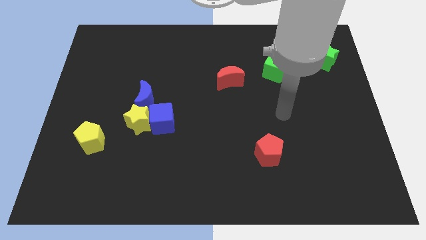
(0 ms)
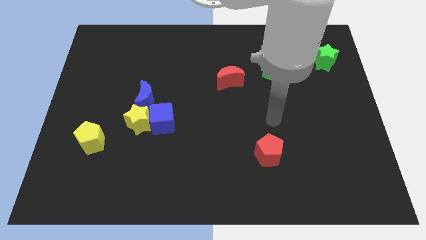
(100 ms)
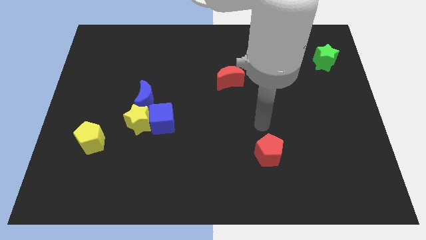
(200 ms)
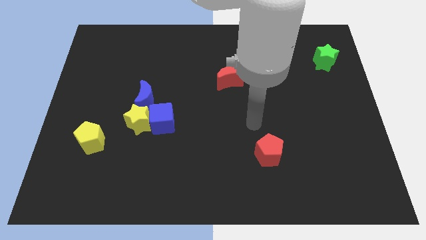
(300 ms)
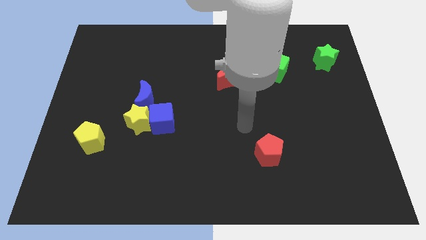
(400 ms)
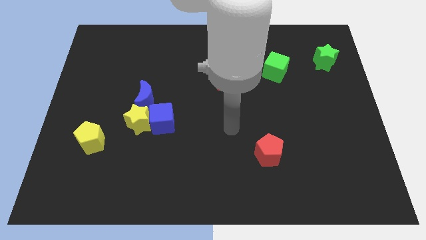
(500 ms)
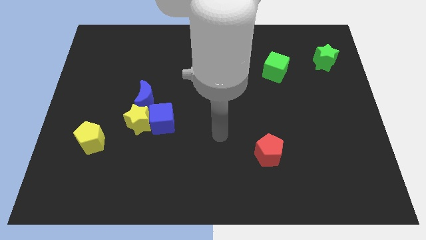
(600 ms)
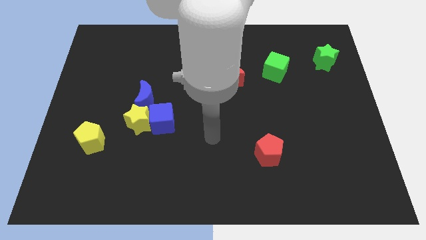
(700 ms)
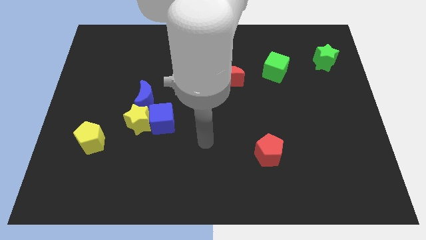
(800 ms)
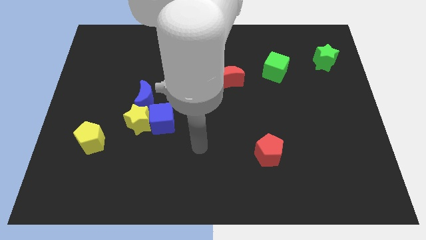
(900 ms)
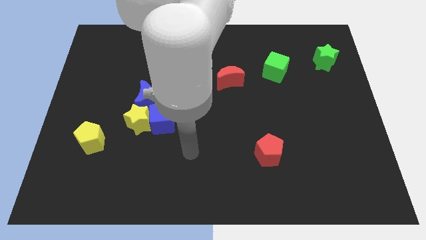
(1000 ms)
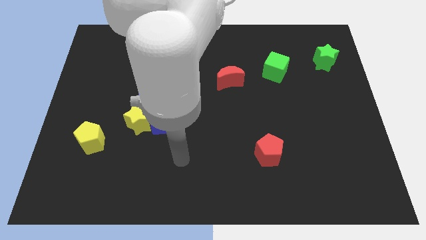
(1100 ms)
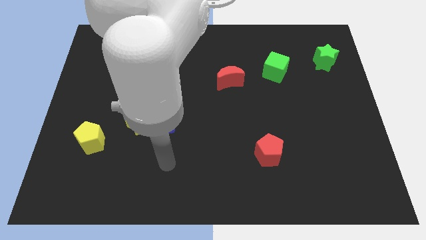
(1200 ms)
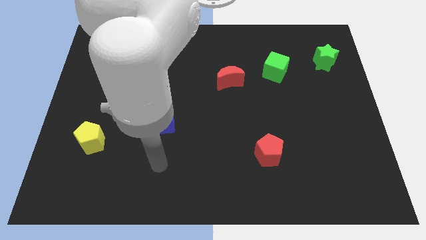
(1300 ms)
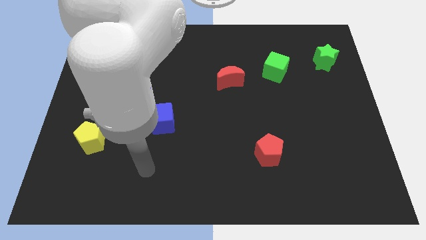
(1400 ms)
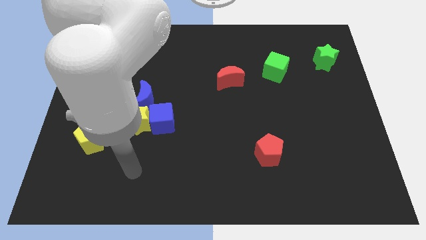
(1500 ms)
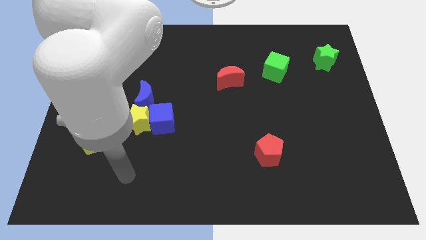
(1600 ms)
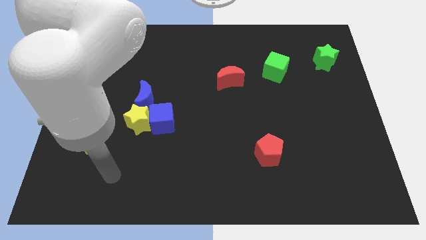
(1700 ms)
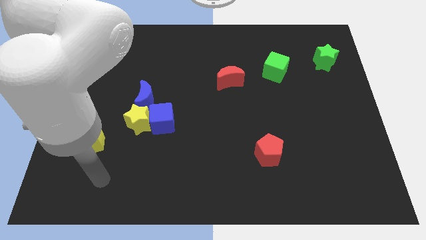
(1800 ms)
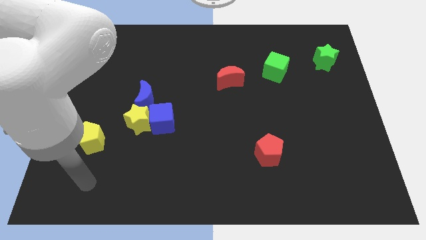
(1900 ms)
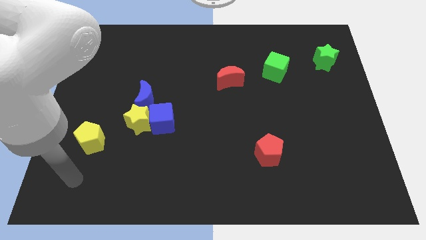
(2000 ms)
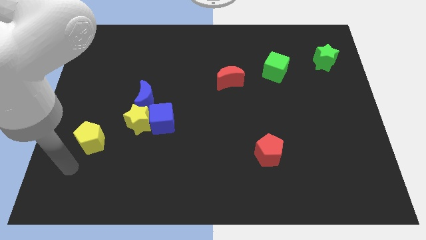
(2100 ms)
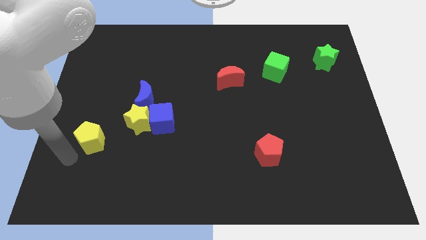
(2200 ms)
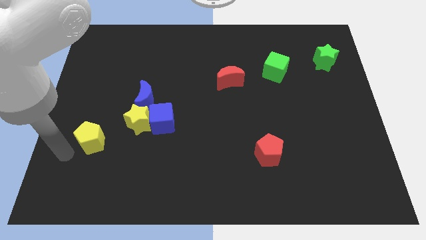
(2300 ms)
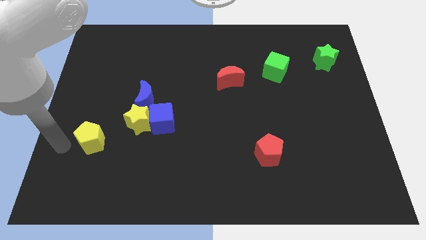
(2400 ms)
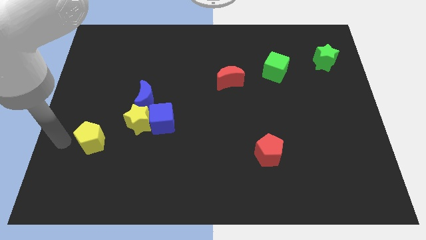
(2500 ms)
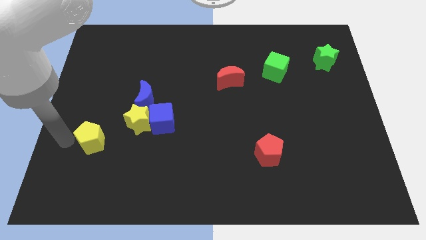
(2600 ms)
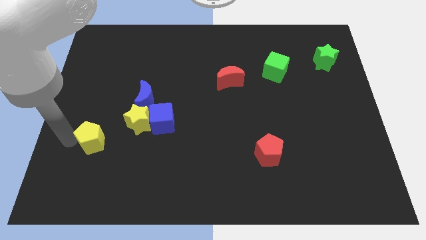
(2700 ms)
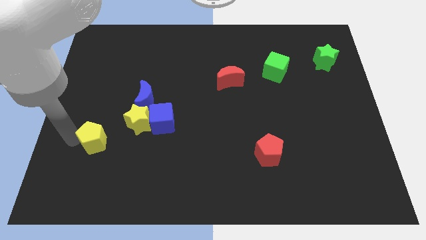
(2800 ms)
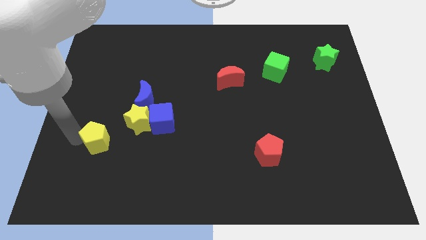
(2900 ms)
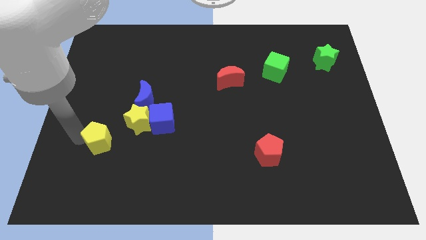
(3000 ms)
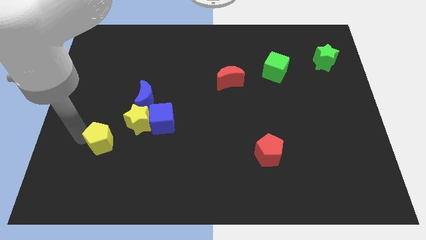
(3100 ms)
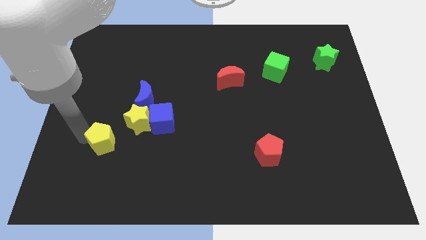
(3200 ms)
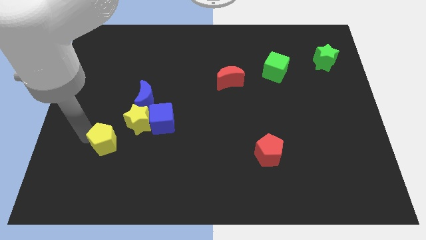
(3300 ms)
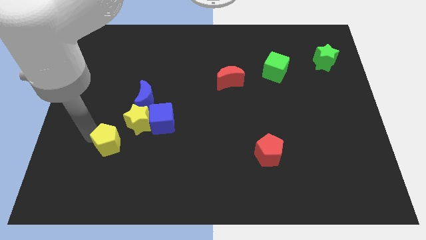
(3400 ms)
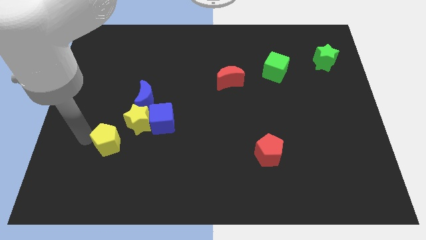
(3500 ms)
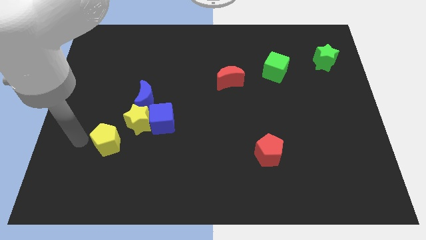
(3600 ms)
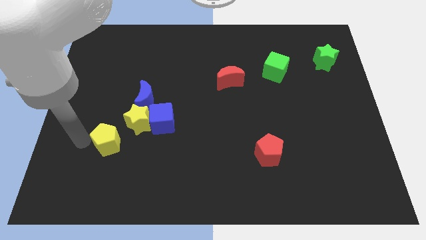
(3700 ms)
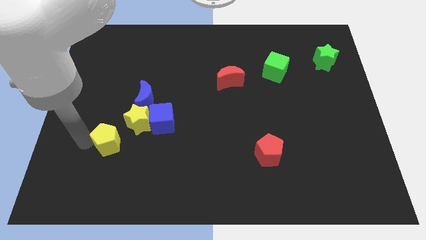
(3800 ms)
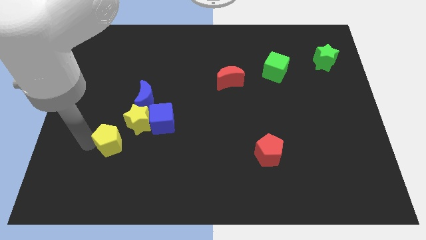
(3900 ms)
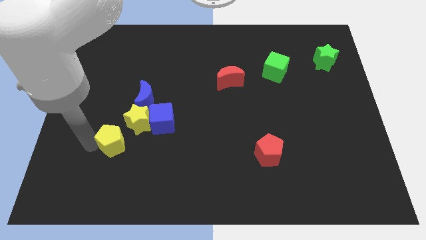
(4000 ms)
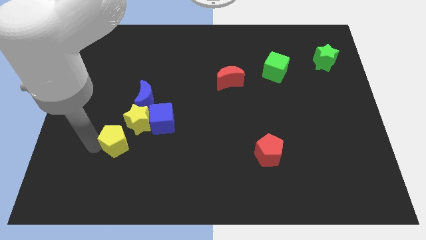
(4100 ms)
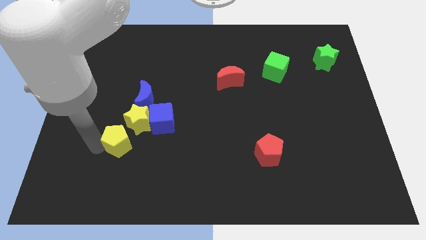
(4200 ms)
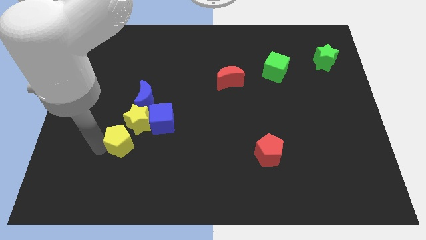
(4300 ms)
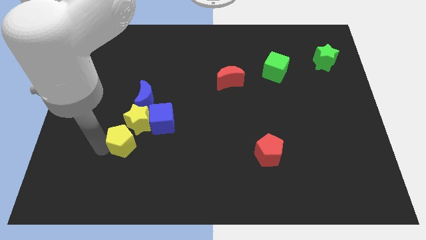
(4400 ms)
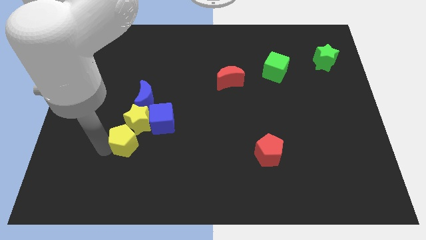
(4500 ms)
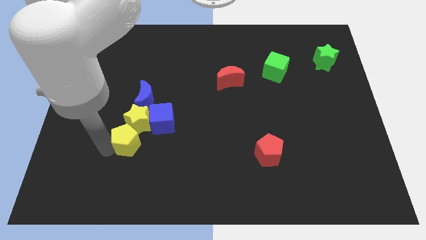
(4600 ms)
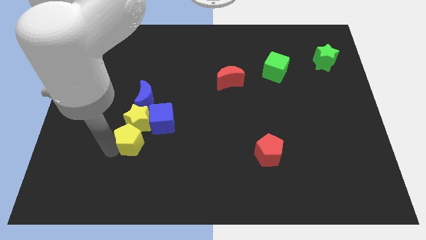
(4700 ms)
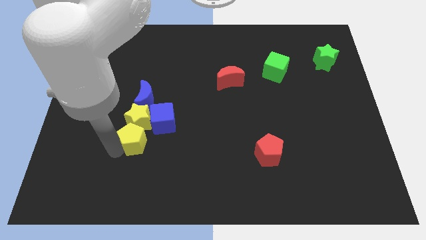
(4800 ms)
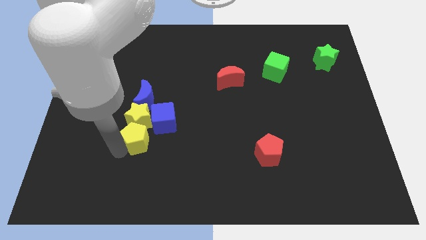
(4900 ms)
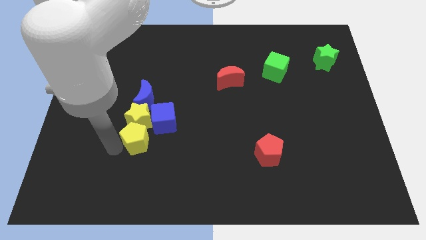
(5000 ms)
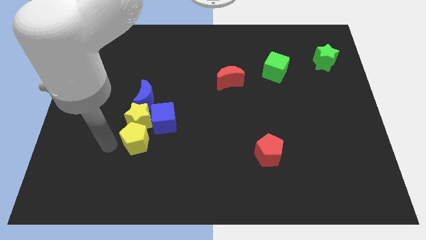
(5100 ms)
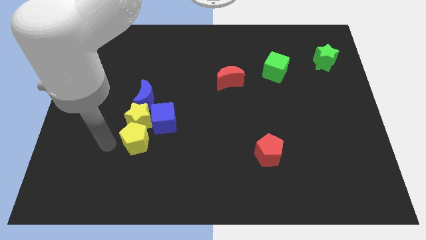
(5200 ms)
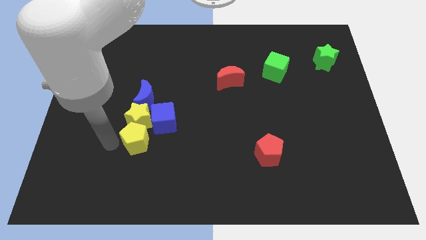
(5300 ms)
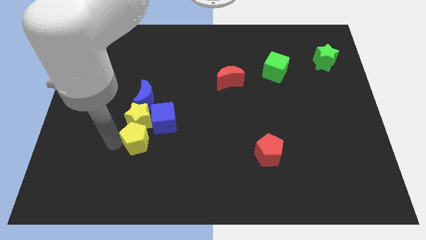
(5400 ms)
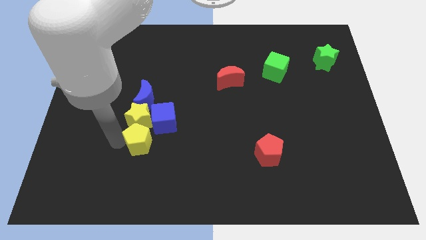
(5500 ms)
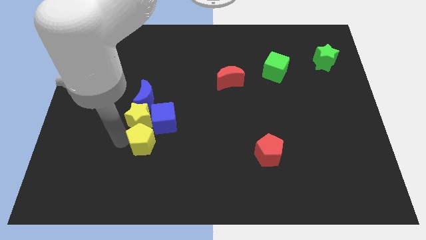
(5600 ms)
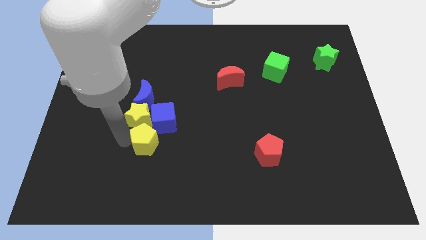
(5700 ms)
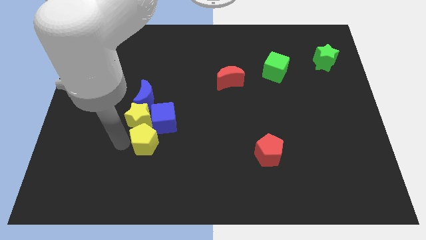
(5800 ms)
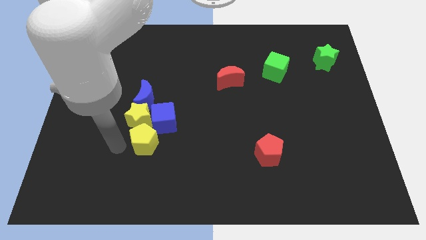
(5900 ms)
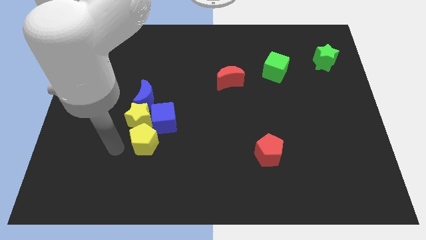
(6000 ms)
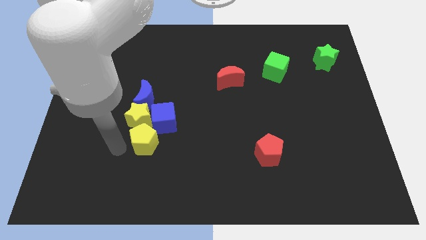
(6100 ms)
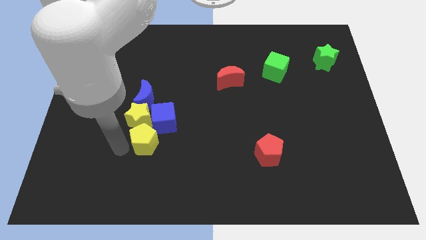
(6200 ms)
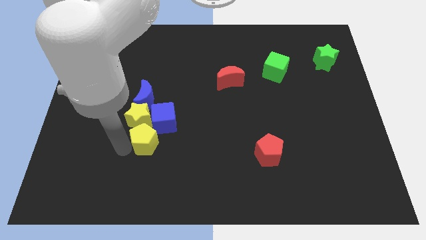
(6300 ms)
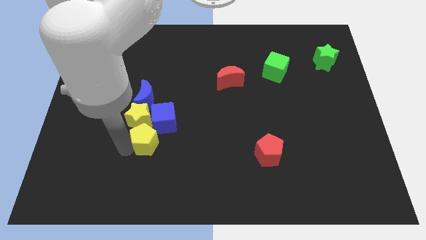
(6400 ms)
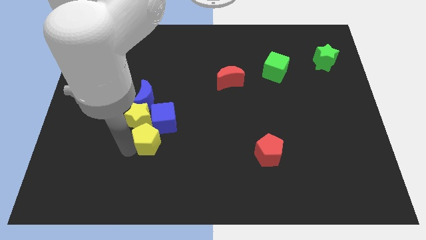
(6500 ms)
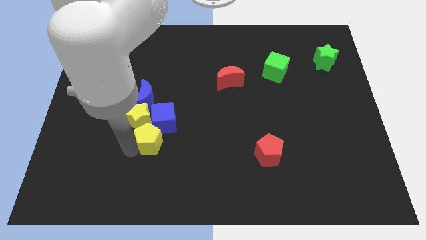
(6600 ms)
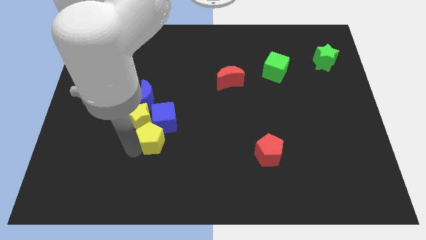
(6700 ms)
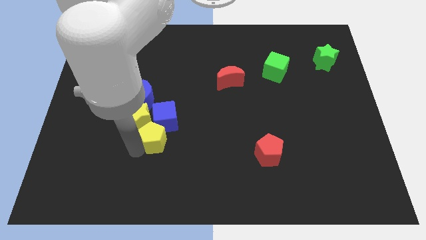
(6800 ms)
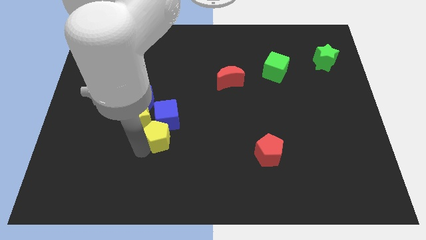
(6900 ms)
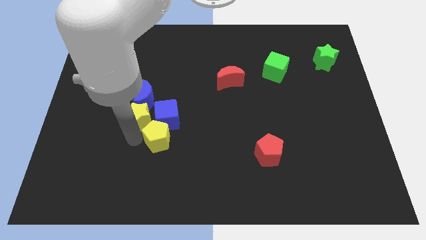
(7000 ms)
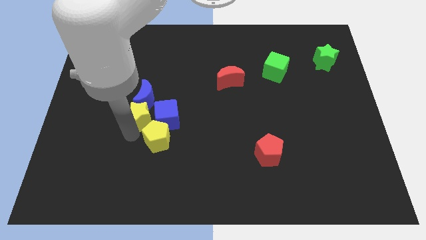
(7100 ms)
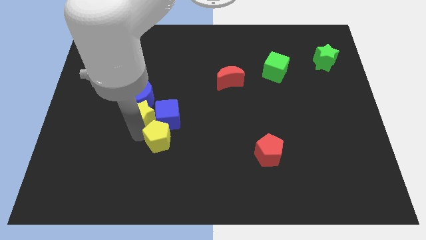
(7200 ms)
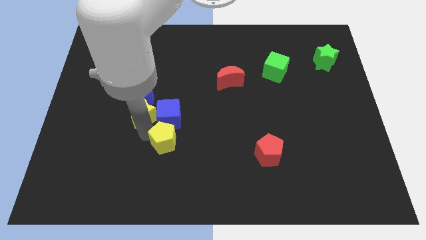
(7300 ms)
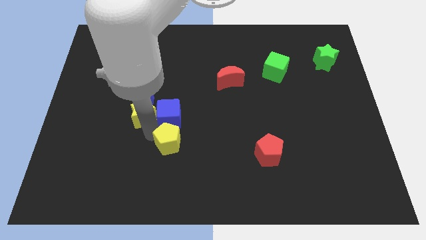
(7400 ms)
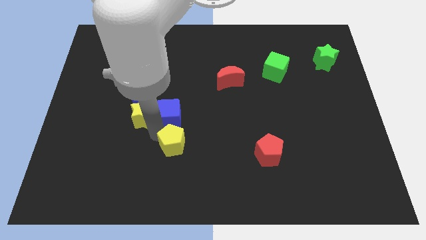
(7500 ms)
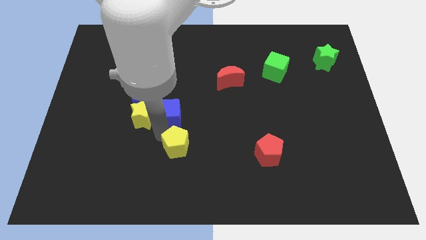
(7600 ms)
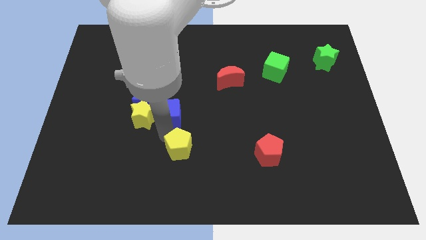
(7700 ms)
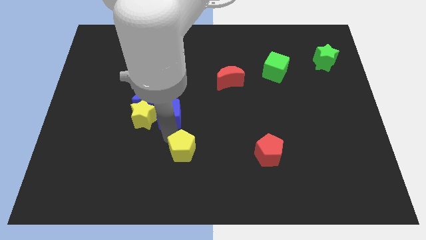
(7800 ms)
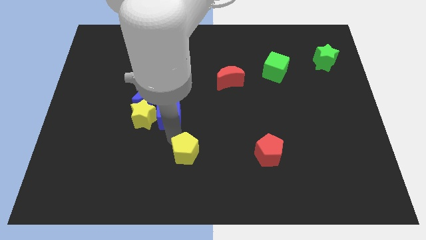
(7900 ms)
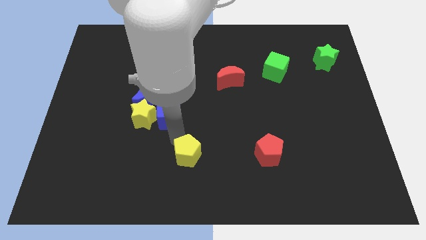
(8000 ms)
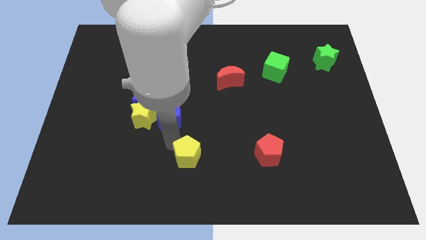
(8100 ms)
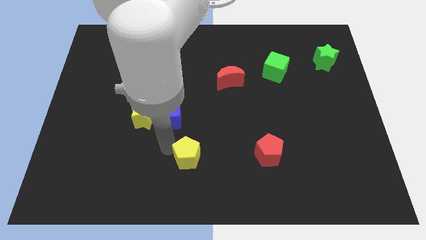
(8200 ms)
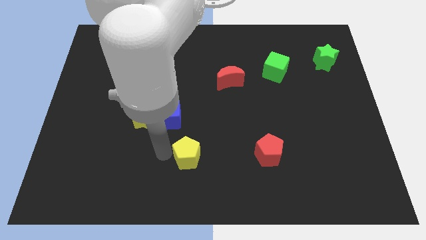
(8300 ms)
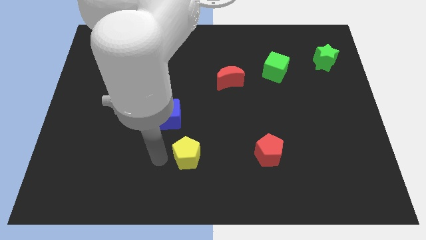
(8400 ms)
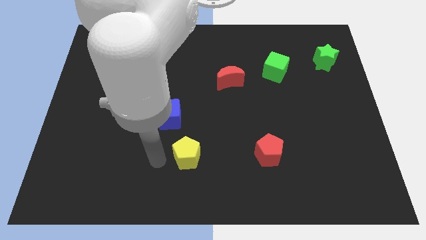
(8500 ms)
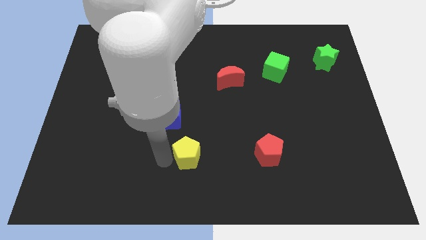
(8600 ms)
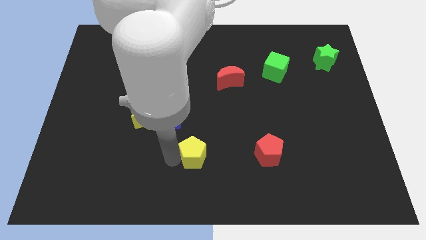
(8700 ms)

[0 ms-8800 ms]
push the yellow pentagon left of the red pentagon

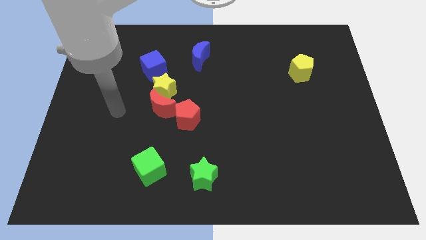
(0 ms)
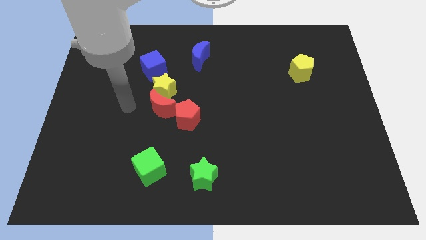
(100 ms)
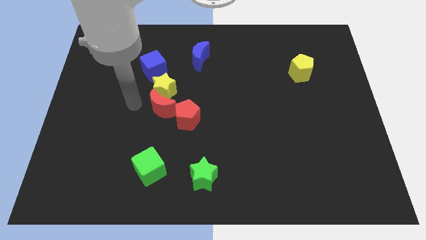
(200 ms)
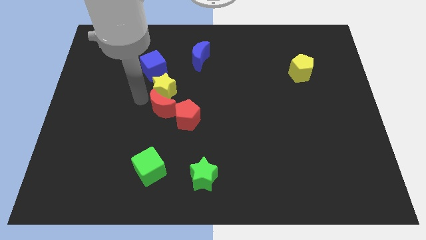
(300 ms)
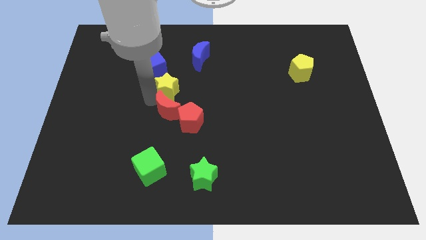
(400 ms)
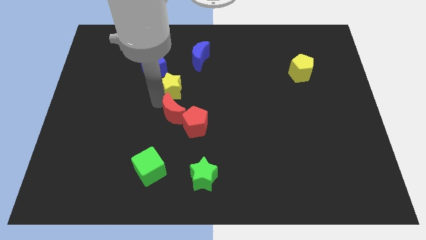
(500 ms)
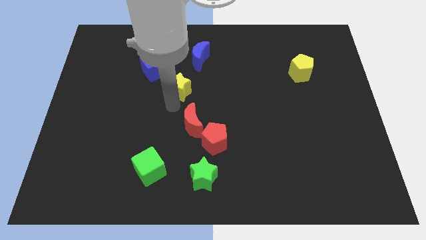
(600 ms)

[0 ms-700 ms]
push the red pentagon diagonally up and to the right of the green star
